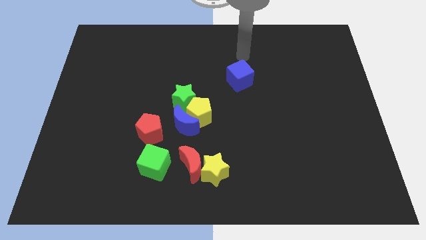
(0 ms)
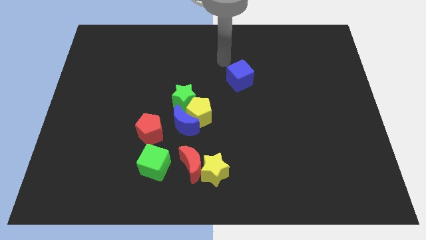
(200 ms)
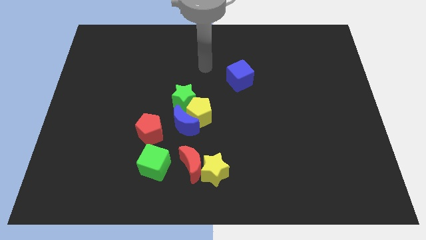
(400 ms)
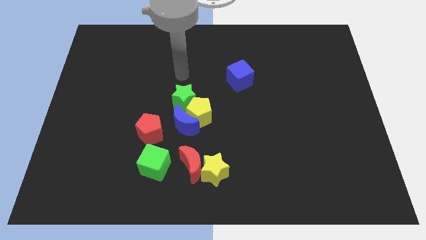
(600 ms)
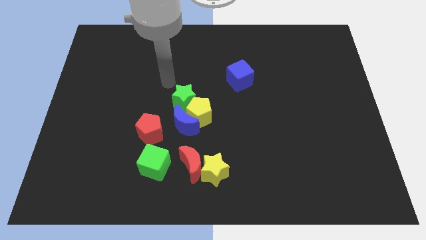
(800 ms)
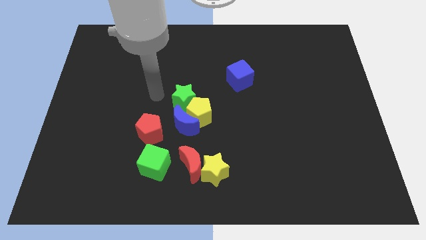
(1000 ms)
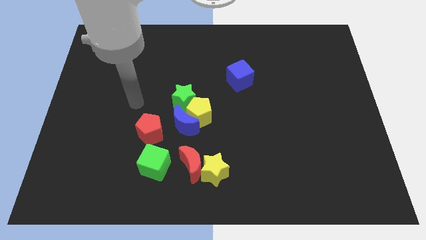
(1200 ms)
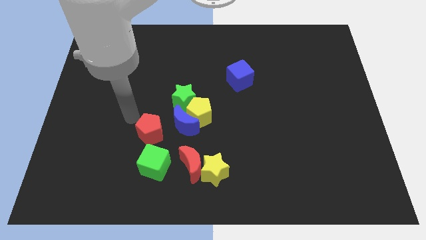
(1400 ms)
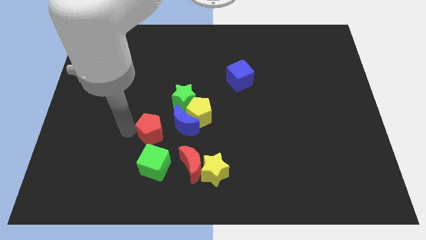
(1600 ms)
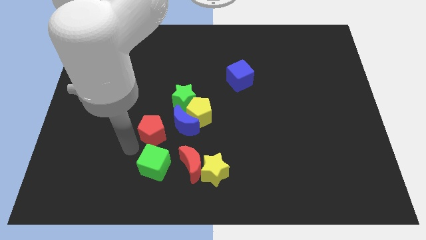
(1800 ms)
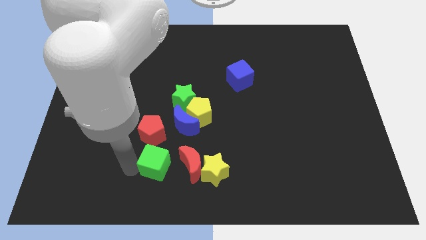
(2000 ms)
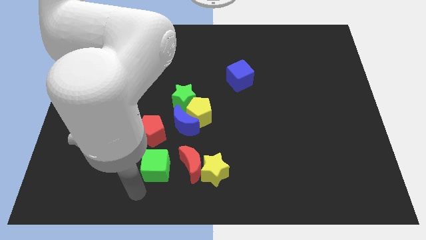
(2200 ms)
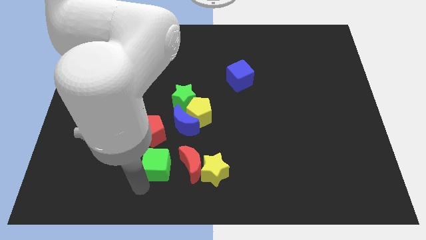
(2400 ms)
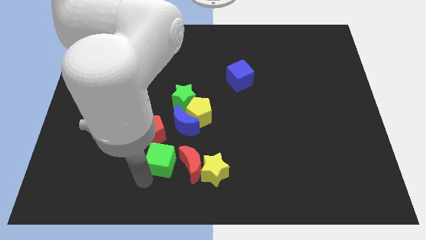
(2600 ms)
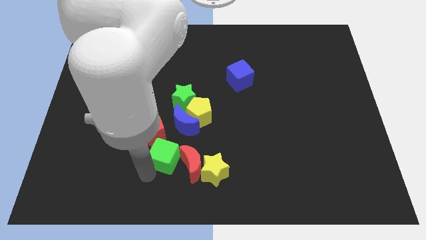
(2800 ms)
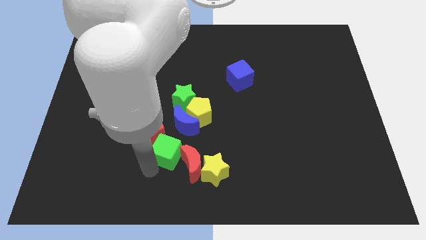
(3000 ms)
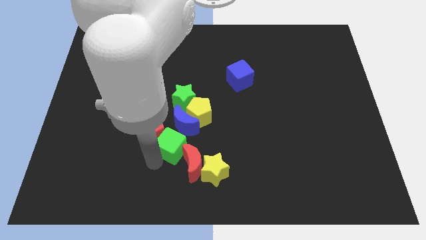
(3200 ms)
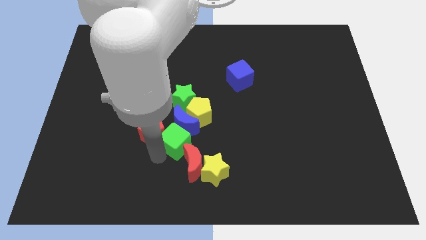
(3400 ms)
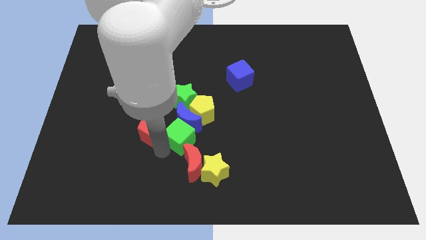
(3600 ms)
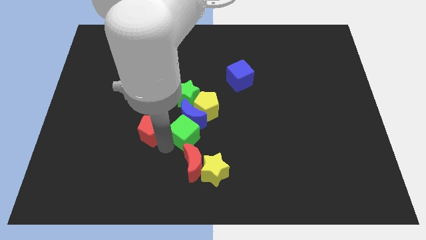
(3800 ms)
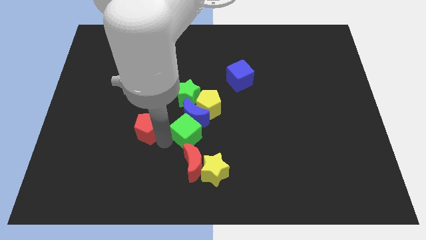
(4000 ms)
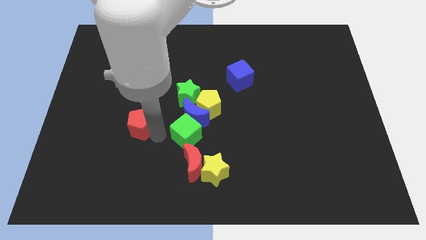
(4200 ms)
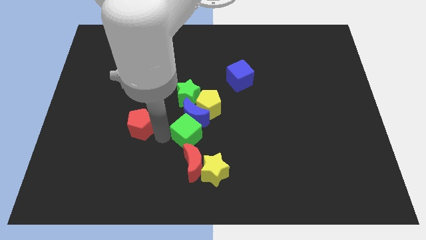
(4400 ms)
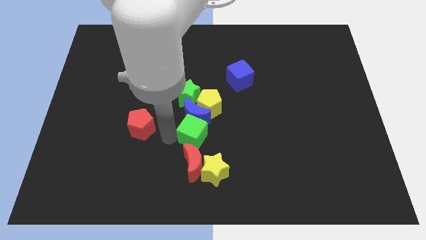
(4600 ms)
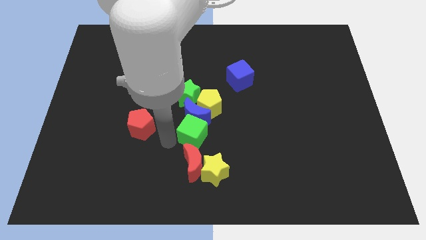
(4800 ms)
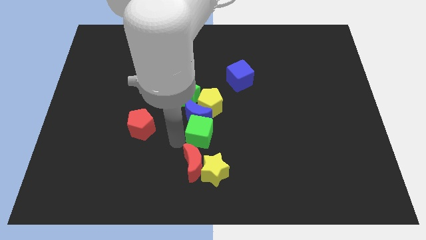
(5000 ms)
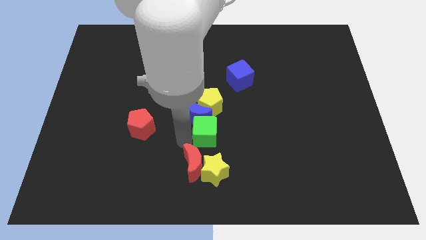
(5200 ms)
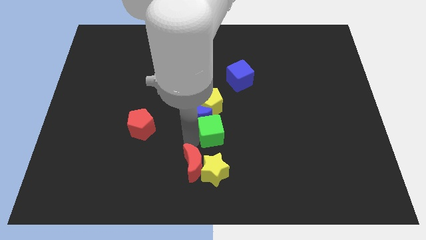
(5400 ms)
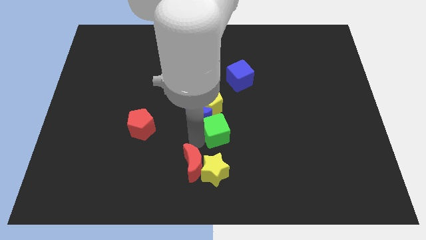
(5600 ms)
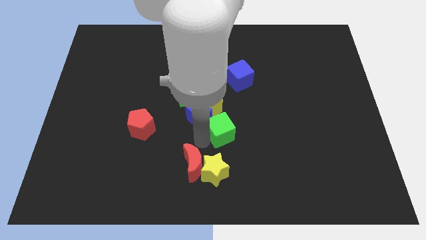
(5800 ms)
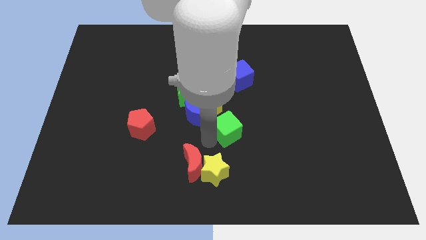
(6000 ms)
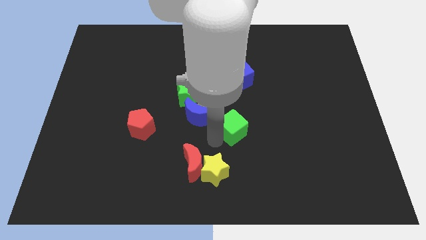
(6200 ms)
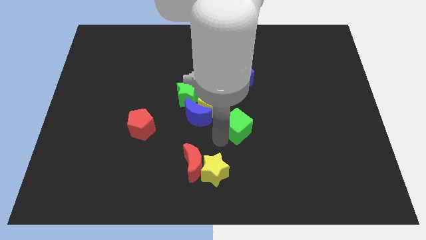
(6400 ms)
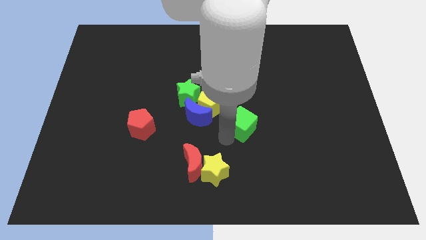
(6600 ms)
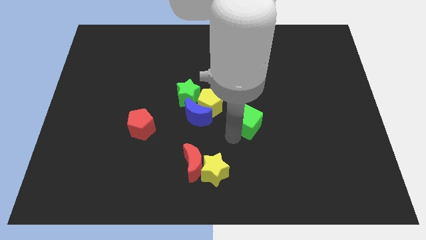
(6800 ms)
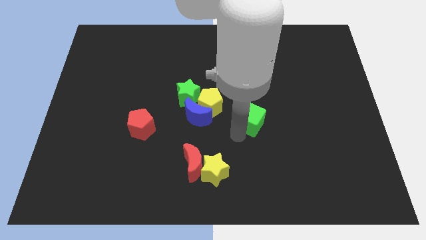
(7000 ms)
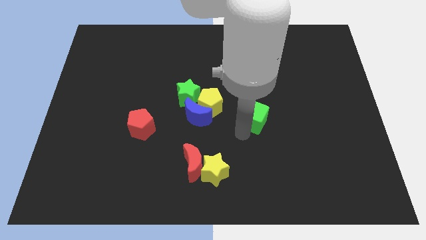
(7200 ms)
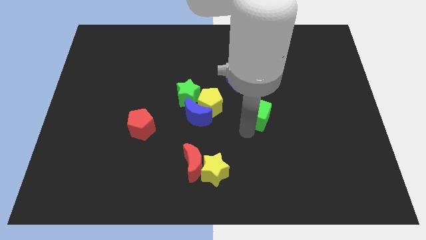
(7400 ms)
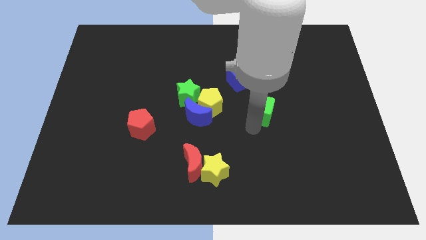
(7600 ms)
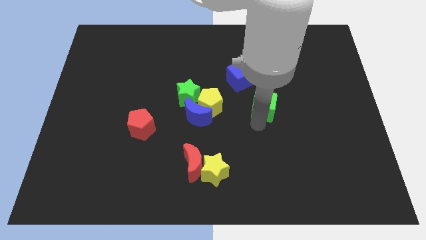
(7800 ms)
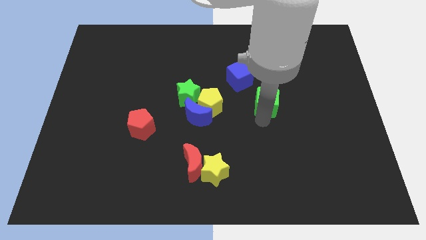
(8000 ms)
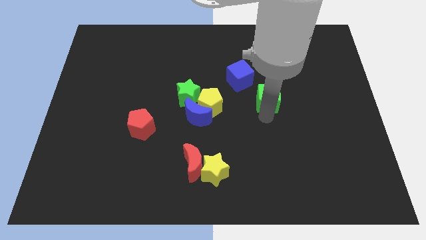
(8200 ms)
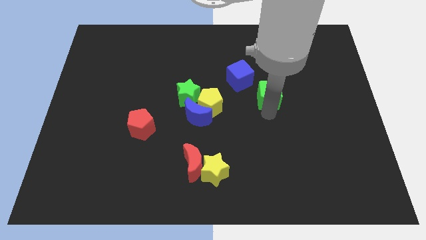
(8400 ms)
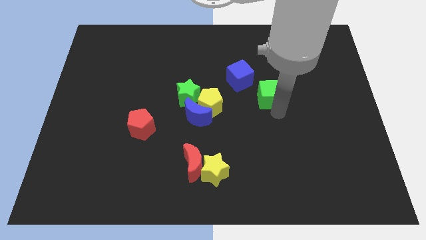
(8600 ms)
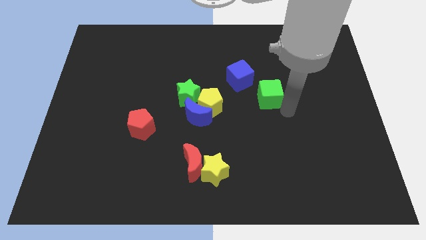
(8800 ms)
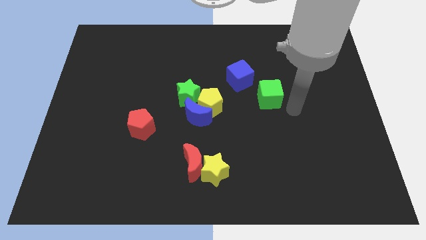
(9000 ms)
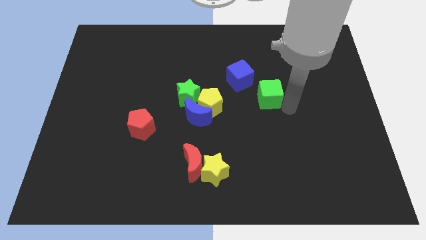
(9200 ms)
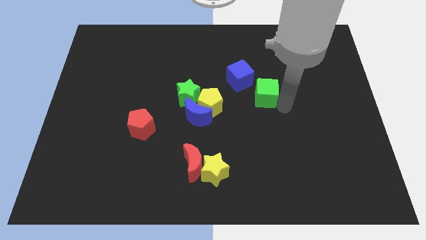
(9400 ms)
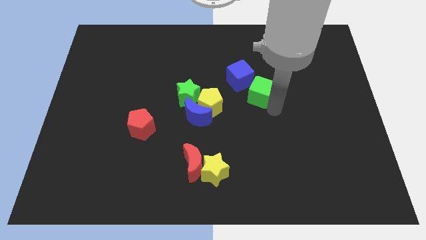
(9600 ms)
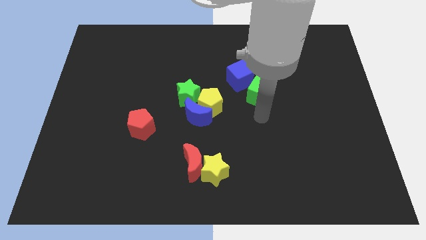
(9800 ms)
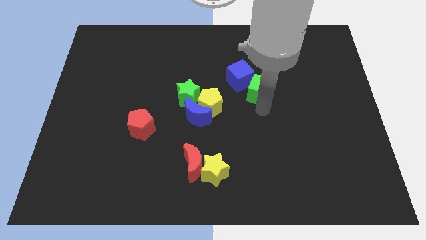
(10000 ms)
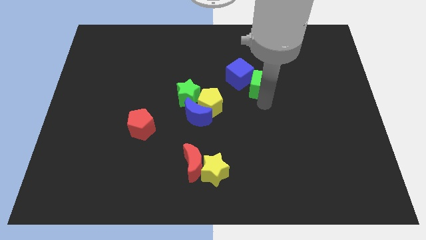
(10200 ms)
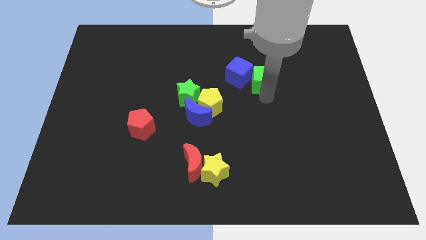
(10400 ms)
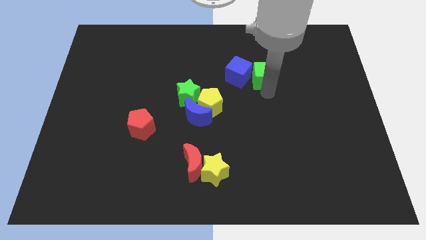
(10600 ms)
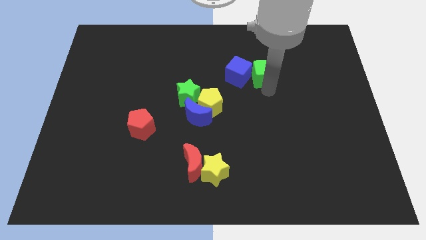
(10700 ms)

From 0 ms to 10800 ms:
slide the green cube to the top right side of the blue cube

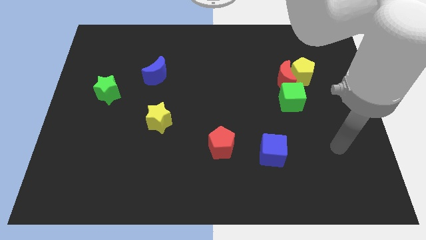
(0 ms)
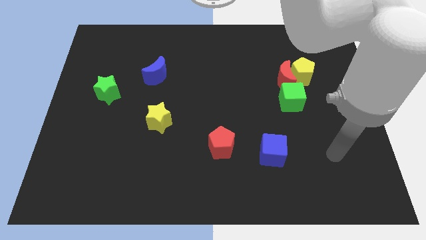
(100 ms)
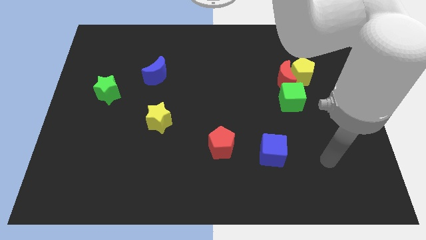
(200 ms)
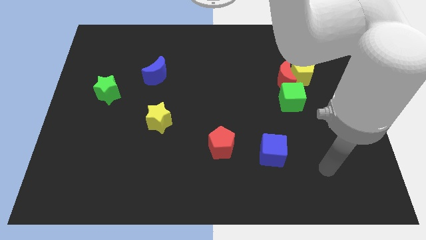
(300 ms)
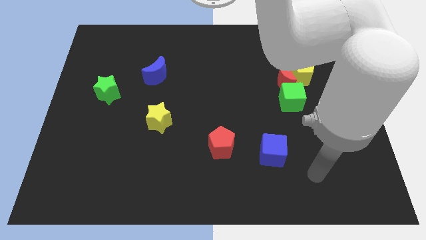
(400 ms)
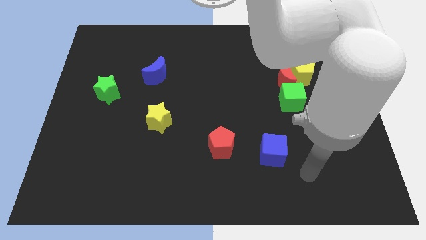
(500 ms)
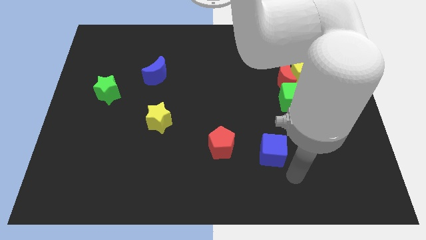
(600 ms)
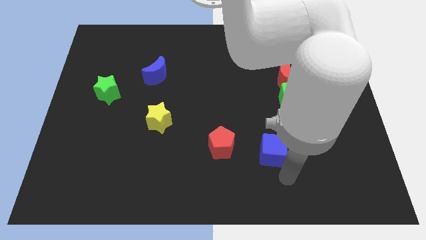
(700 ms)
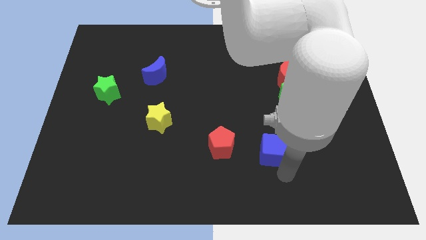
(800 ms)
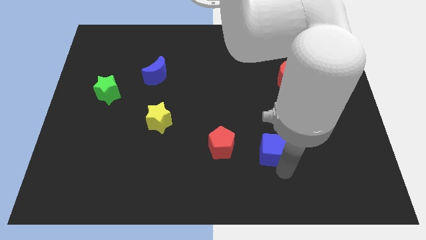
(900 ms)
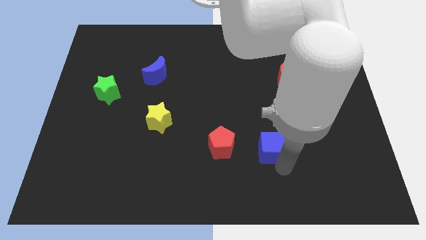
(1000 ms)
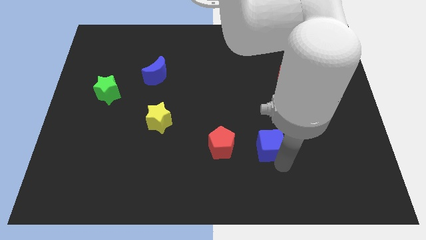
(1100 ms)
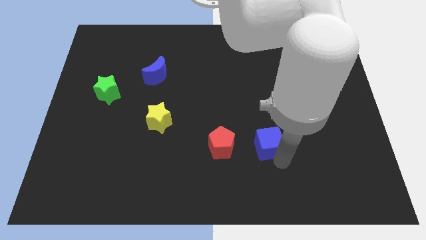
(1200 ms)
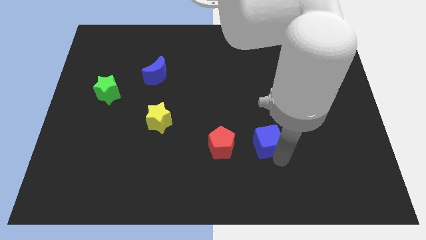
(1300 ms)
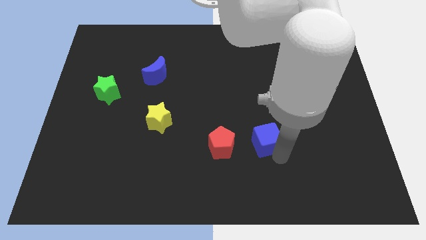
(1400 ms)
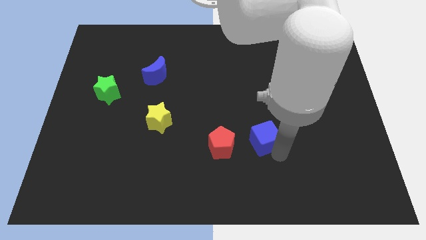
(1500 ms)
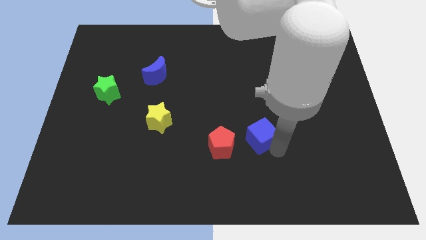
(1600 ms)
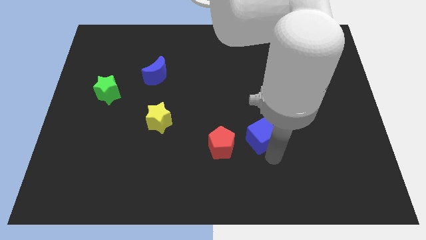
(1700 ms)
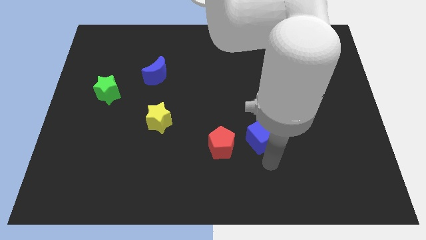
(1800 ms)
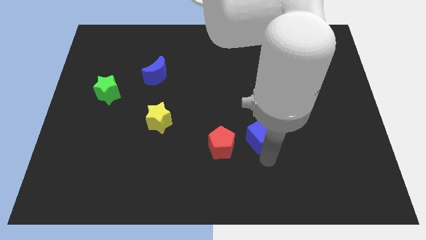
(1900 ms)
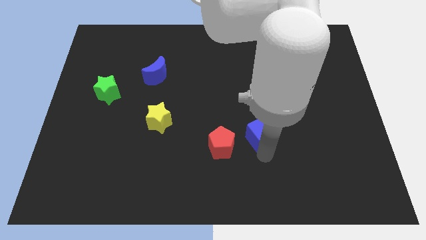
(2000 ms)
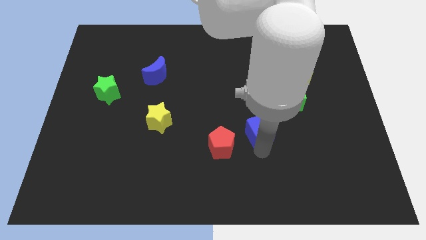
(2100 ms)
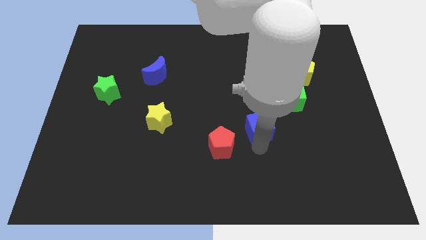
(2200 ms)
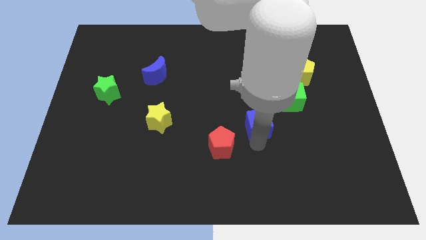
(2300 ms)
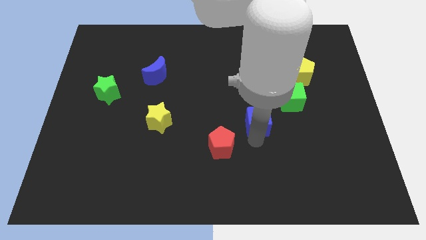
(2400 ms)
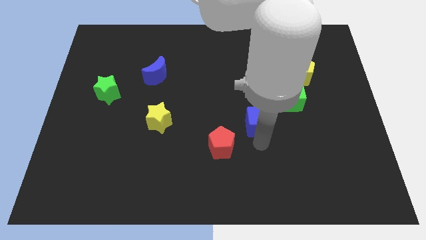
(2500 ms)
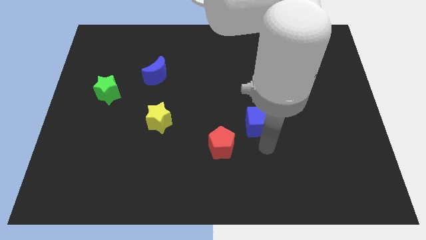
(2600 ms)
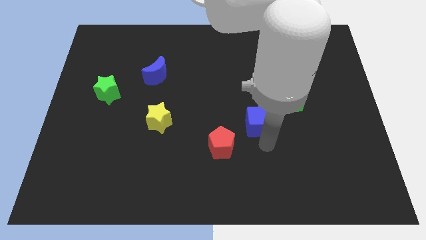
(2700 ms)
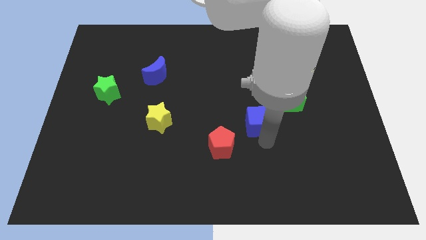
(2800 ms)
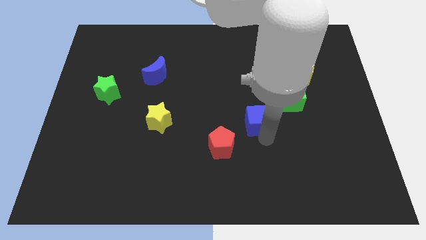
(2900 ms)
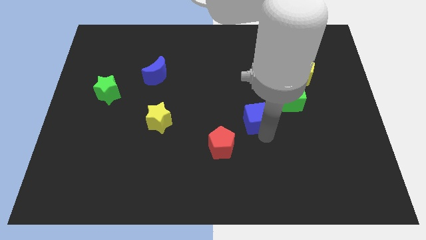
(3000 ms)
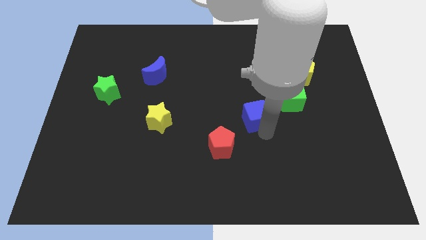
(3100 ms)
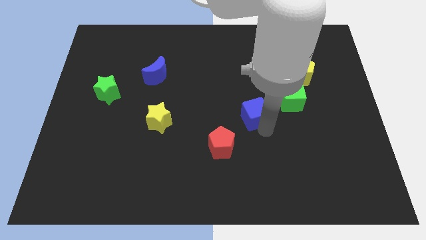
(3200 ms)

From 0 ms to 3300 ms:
move the blue cube to the left side of the green cube
